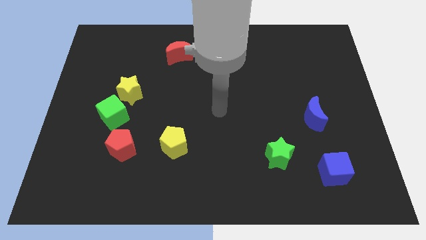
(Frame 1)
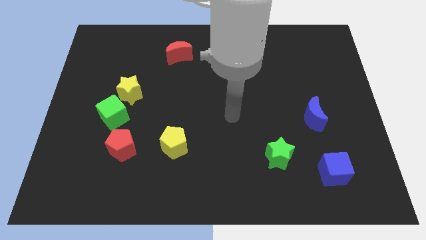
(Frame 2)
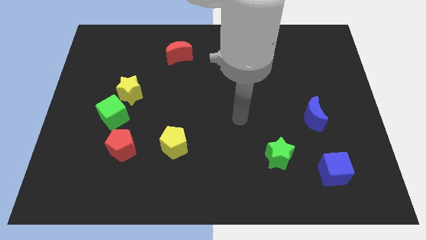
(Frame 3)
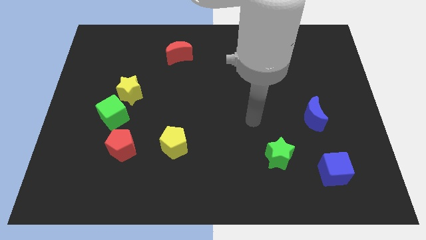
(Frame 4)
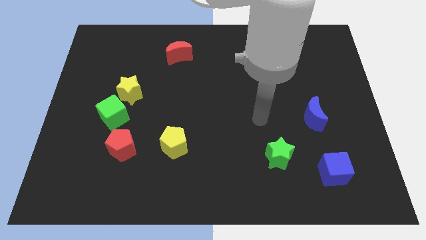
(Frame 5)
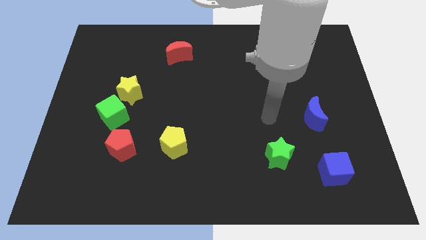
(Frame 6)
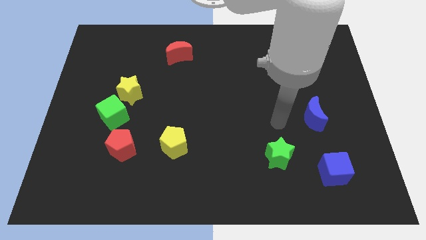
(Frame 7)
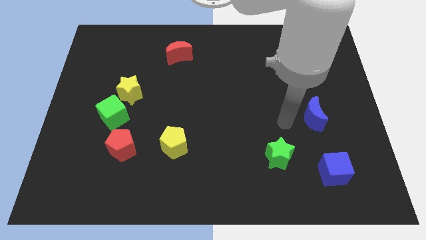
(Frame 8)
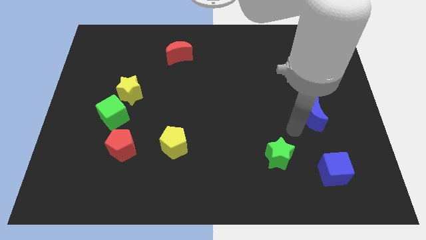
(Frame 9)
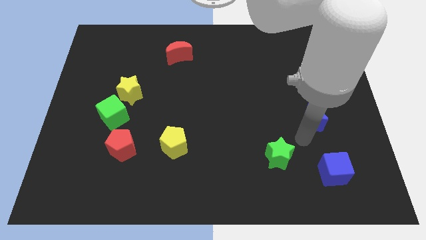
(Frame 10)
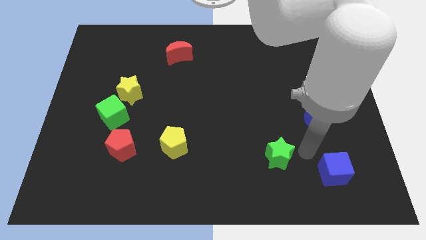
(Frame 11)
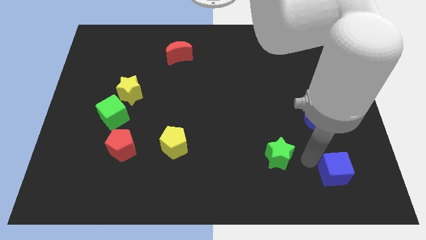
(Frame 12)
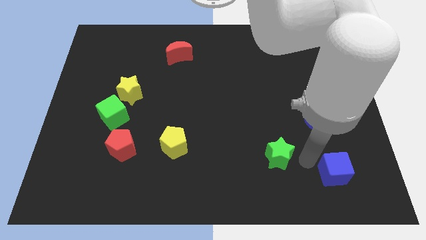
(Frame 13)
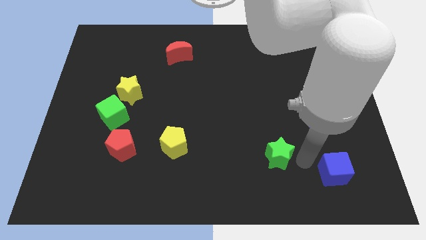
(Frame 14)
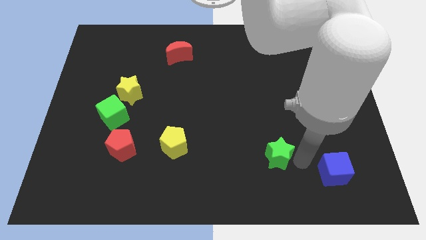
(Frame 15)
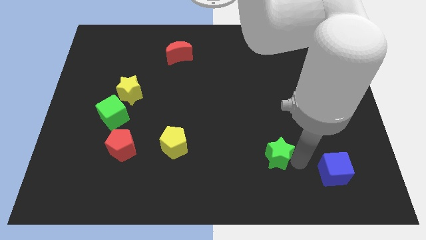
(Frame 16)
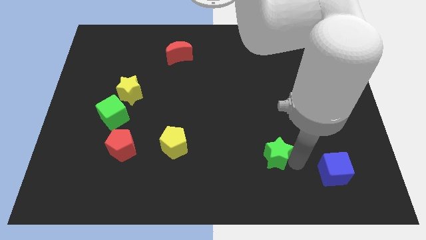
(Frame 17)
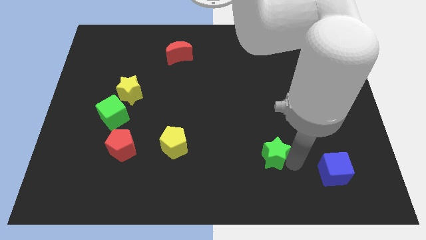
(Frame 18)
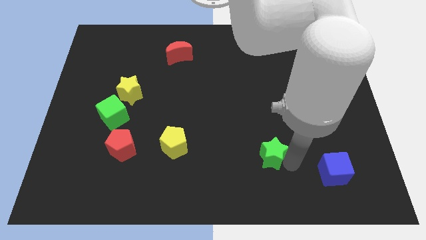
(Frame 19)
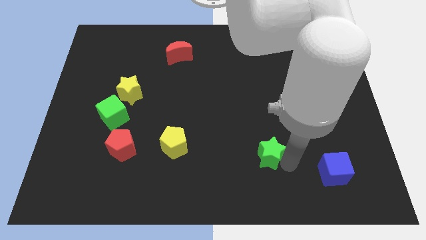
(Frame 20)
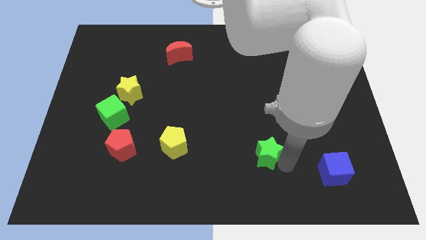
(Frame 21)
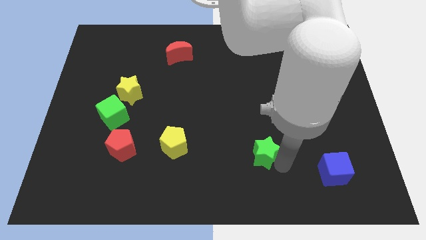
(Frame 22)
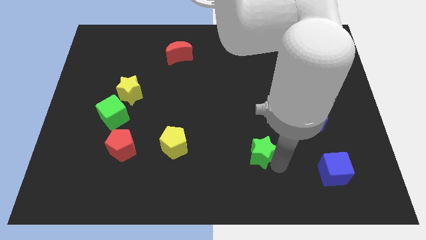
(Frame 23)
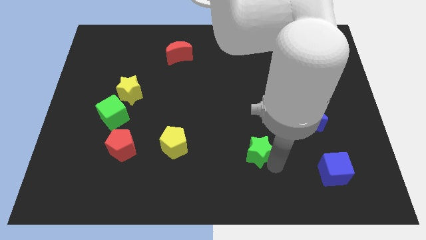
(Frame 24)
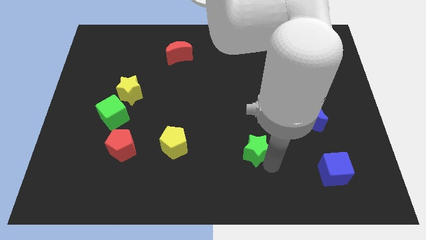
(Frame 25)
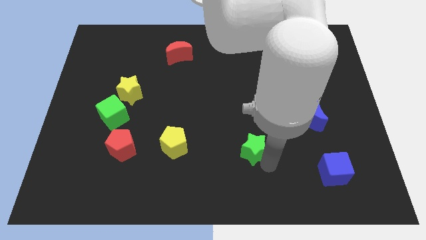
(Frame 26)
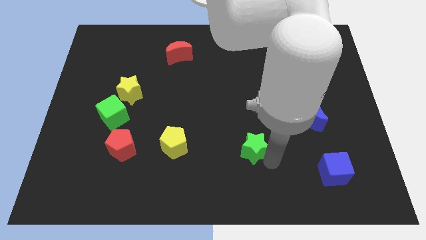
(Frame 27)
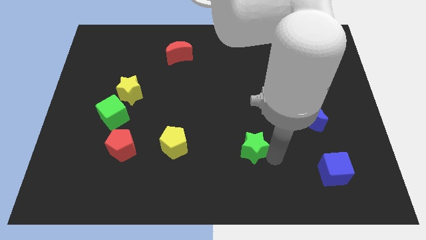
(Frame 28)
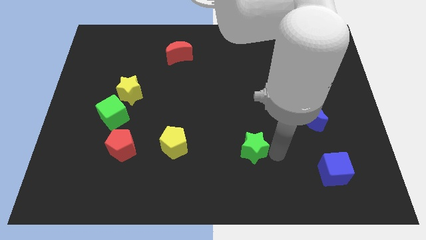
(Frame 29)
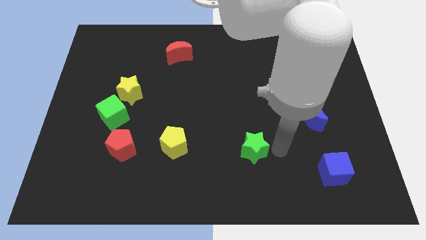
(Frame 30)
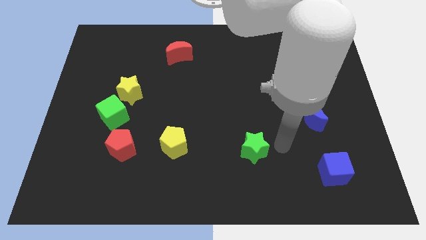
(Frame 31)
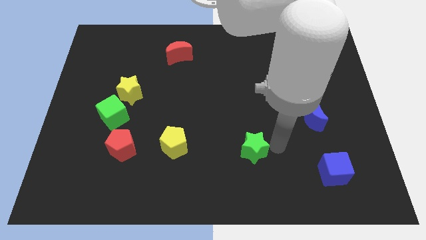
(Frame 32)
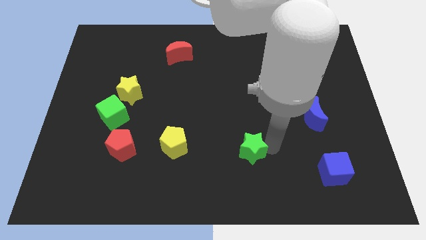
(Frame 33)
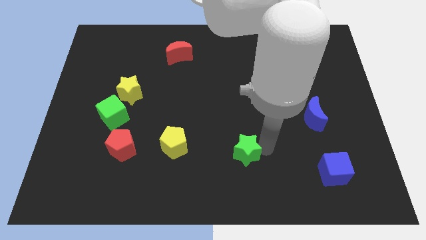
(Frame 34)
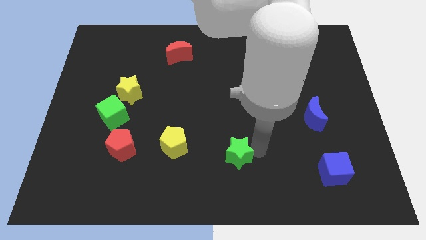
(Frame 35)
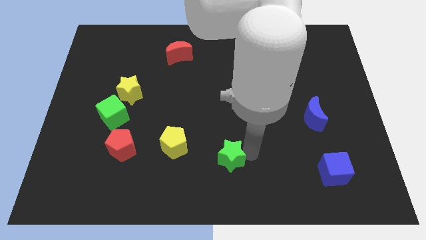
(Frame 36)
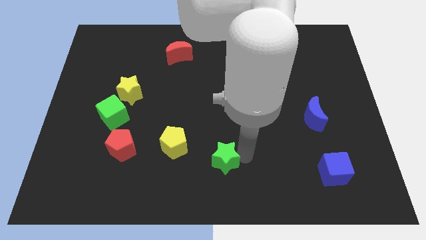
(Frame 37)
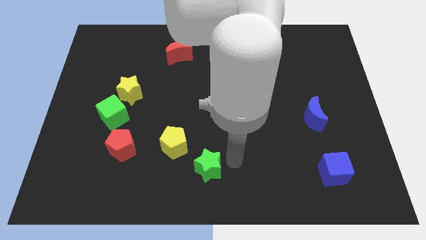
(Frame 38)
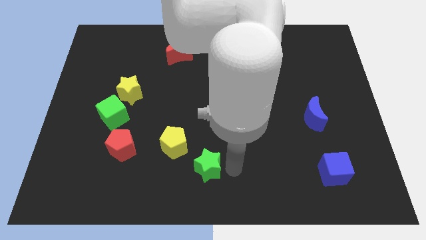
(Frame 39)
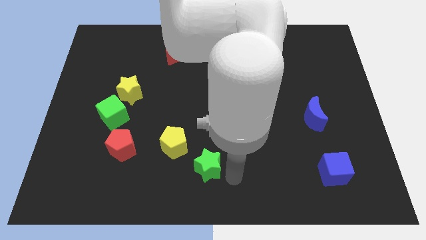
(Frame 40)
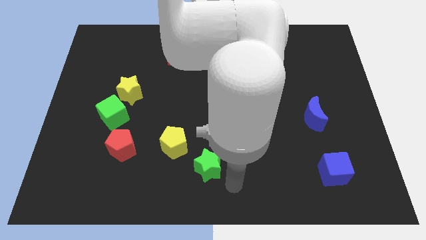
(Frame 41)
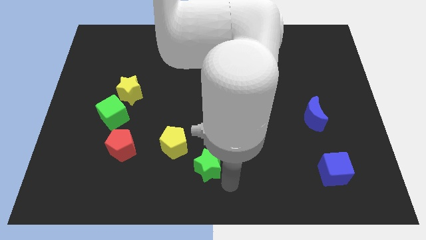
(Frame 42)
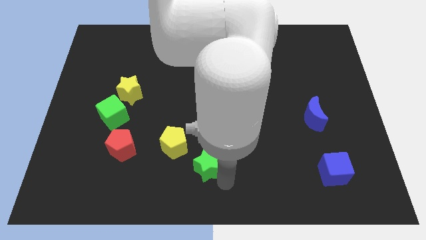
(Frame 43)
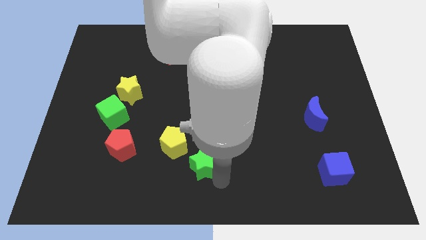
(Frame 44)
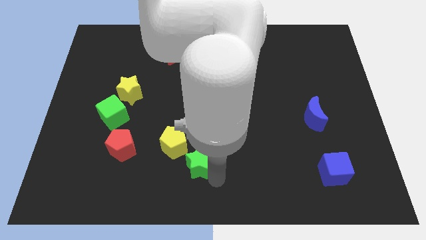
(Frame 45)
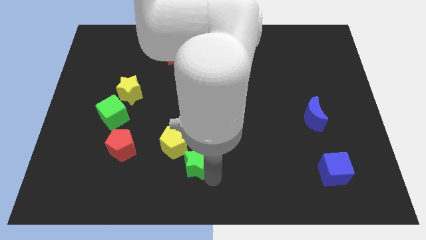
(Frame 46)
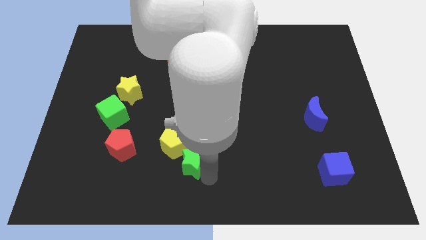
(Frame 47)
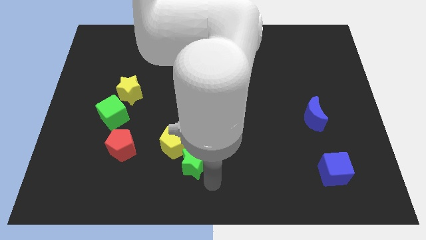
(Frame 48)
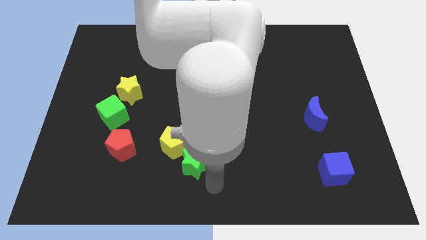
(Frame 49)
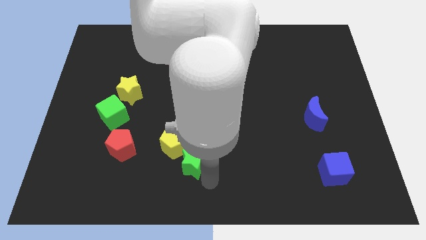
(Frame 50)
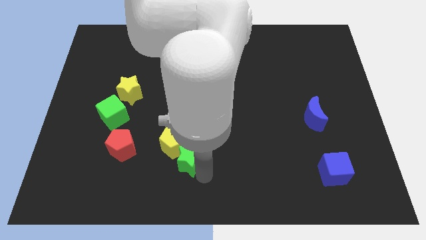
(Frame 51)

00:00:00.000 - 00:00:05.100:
put the green star to the yellow pentagon

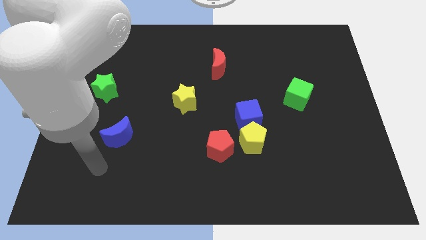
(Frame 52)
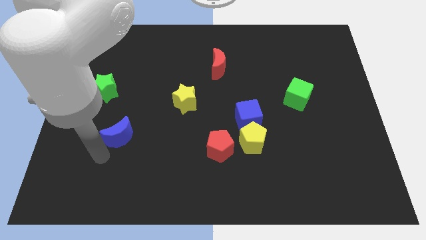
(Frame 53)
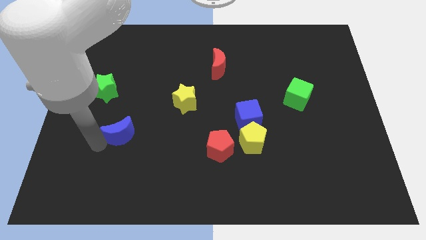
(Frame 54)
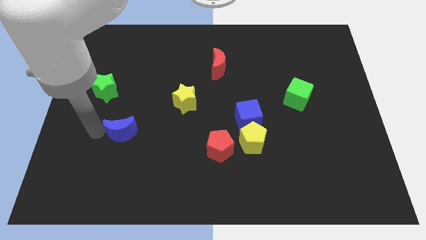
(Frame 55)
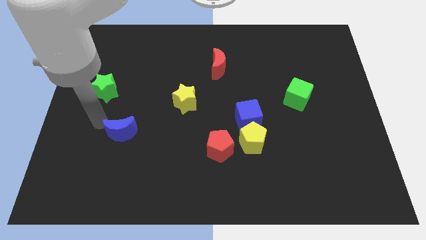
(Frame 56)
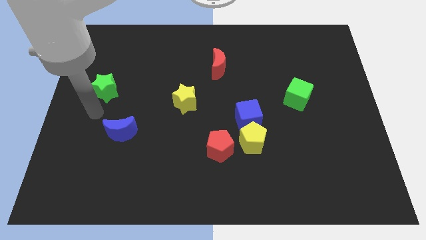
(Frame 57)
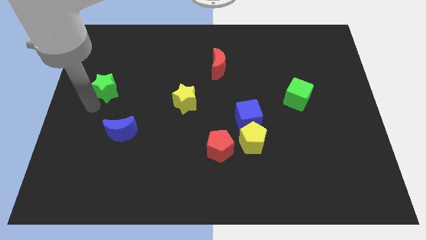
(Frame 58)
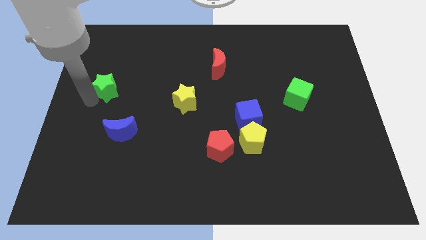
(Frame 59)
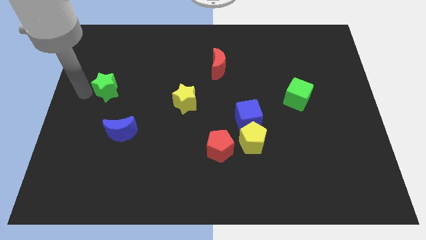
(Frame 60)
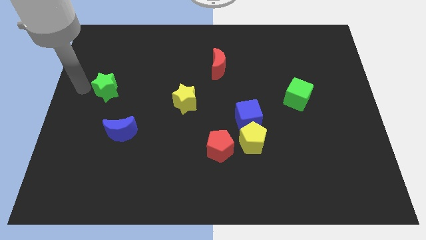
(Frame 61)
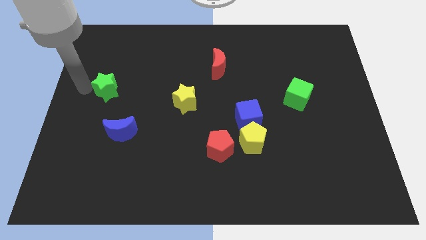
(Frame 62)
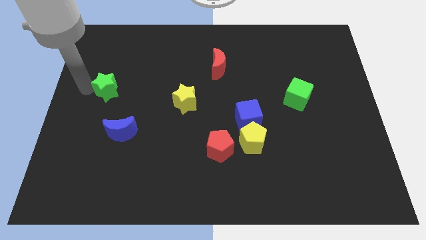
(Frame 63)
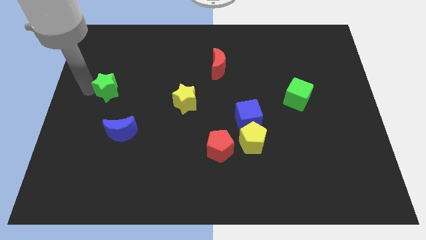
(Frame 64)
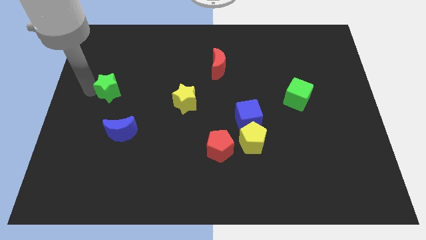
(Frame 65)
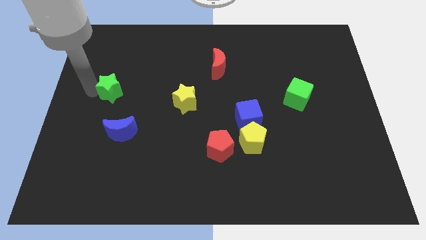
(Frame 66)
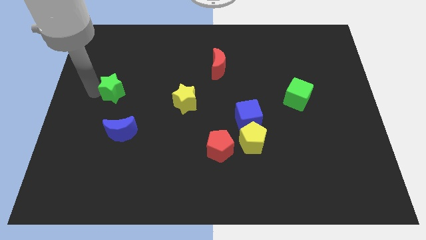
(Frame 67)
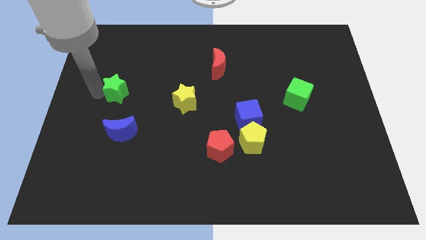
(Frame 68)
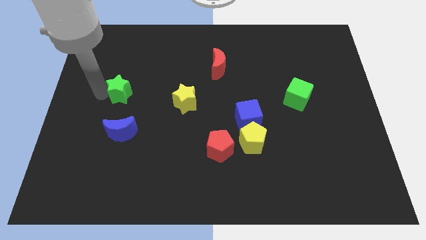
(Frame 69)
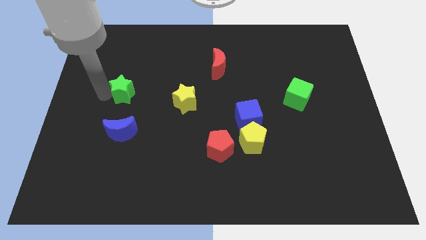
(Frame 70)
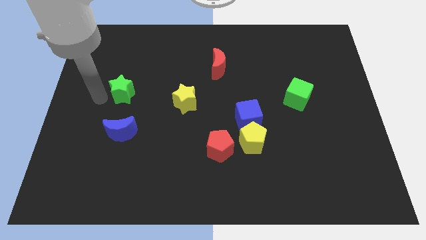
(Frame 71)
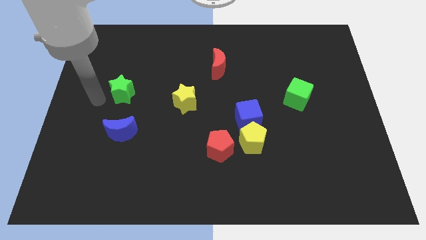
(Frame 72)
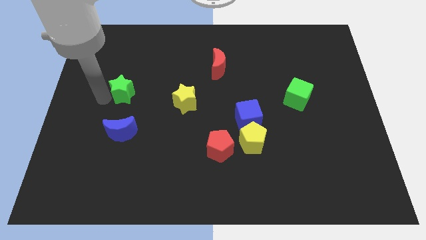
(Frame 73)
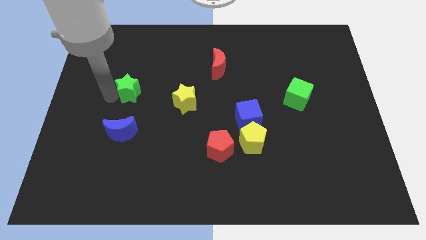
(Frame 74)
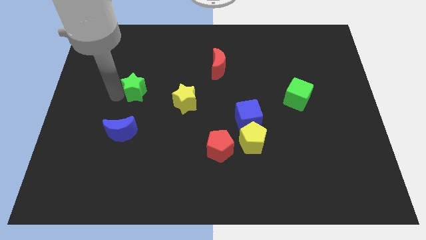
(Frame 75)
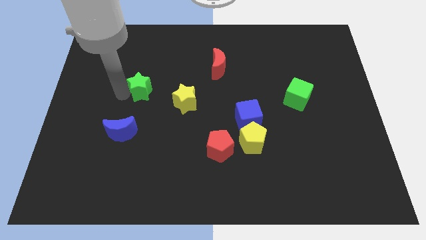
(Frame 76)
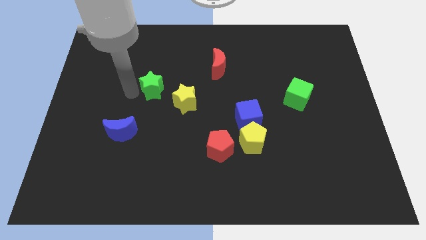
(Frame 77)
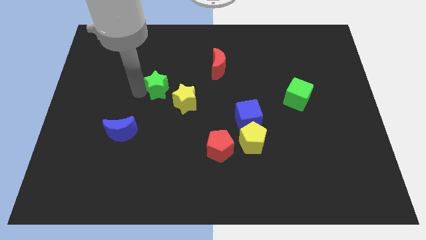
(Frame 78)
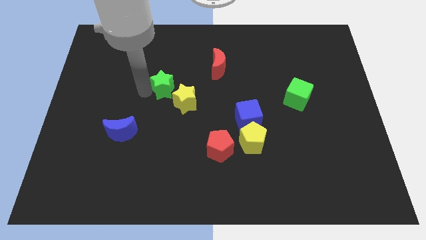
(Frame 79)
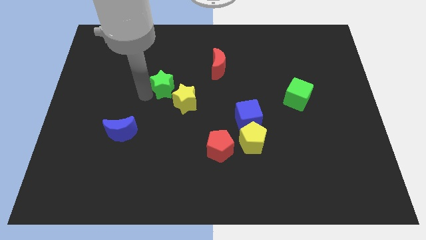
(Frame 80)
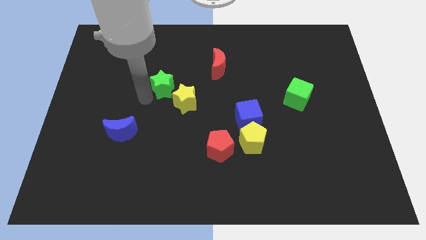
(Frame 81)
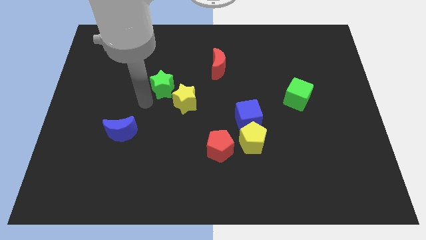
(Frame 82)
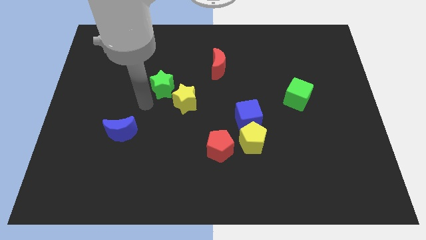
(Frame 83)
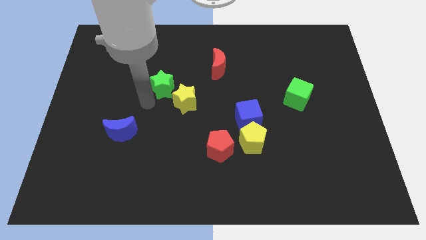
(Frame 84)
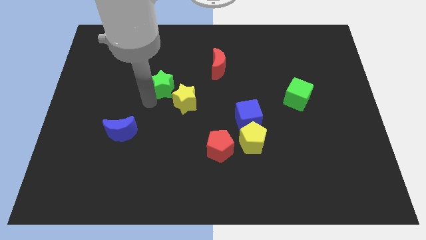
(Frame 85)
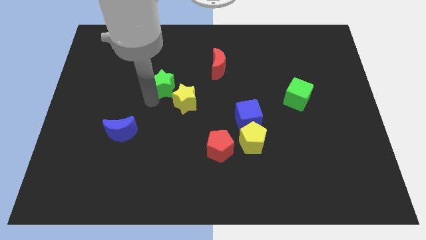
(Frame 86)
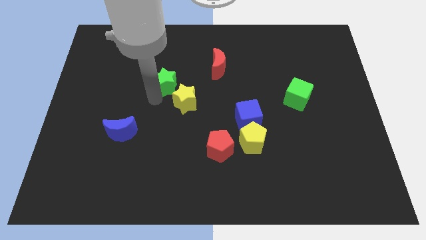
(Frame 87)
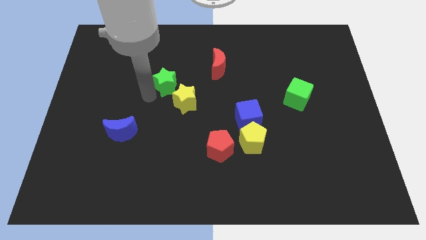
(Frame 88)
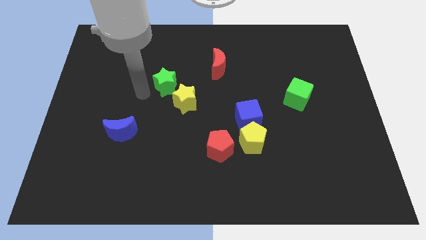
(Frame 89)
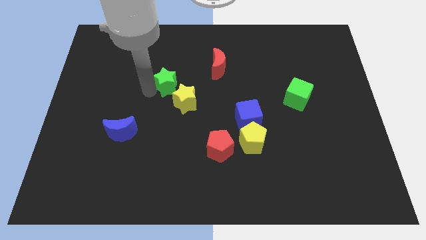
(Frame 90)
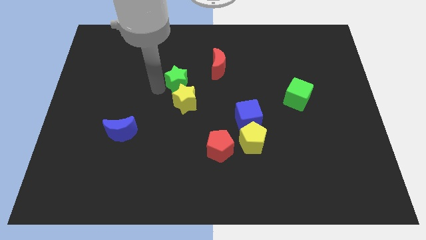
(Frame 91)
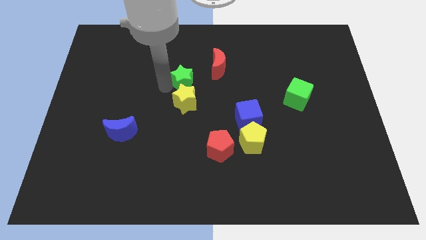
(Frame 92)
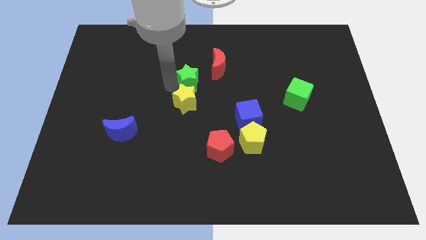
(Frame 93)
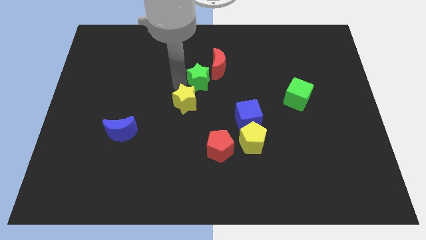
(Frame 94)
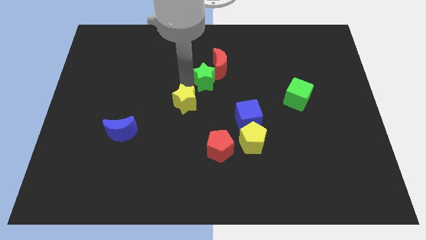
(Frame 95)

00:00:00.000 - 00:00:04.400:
move the green star next to the red moon
